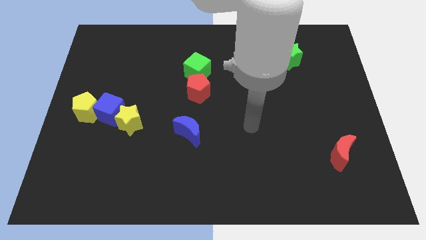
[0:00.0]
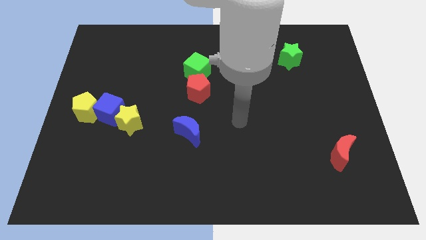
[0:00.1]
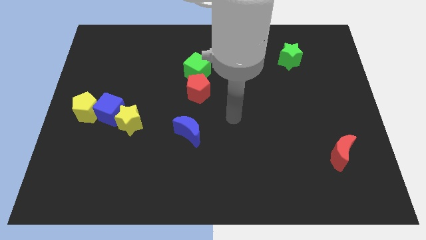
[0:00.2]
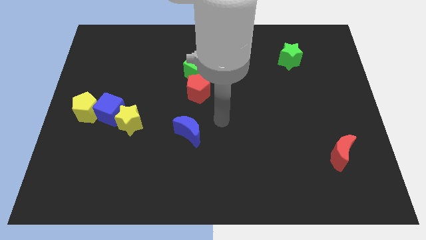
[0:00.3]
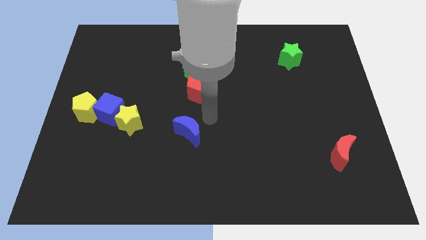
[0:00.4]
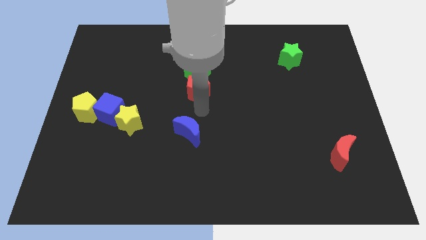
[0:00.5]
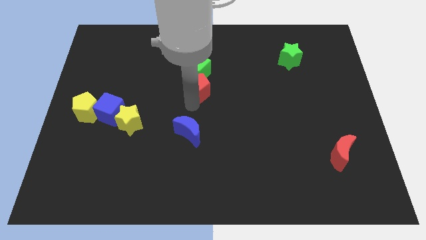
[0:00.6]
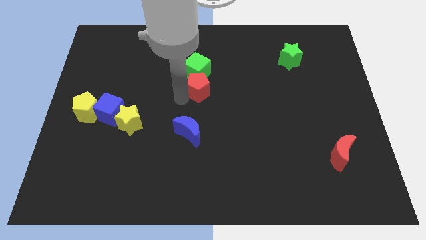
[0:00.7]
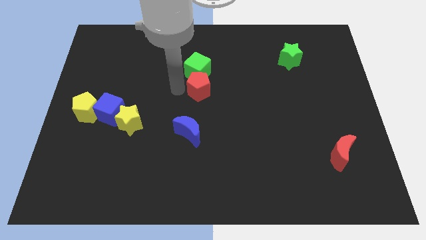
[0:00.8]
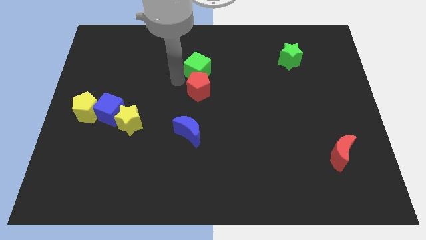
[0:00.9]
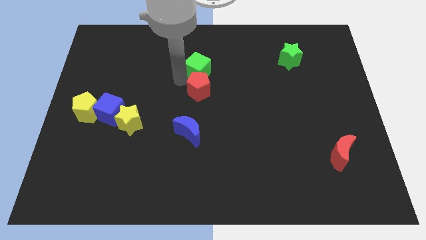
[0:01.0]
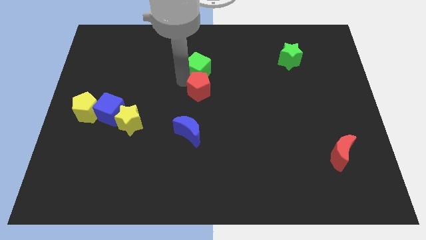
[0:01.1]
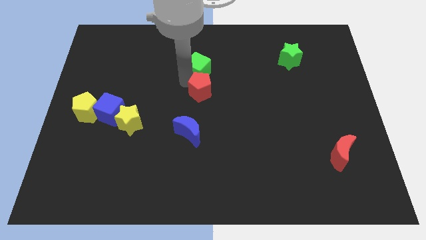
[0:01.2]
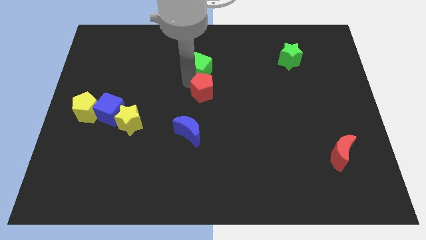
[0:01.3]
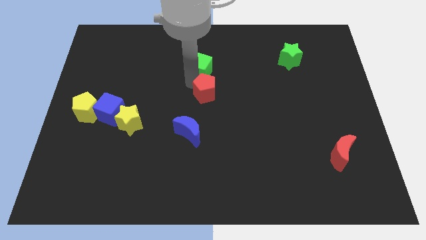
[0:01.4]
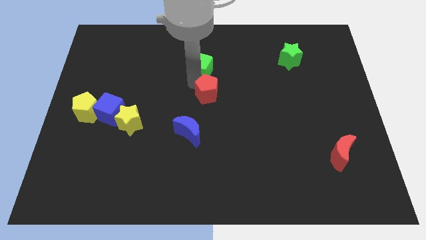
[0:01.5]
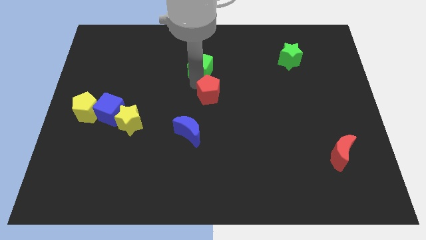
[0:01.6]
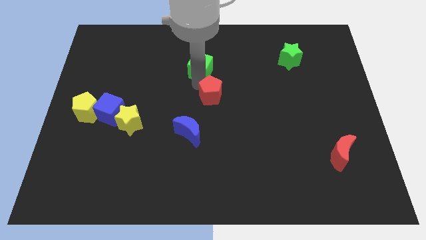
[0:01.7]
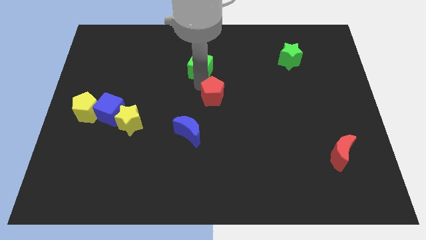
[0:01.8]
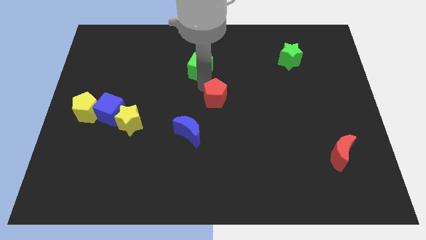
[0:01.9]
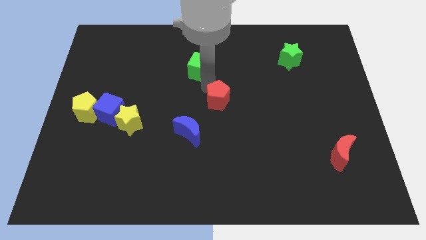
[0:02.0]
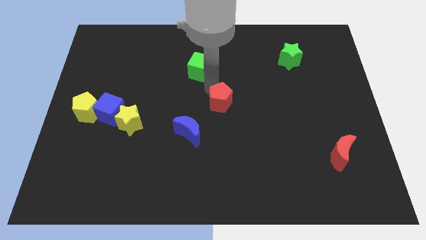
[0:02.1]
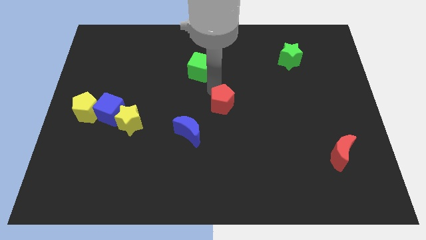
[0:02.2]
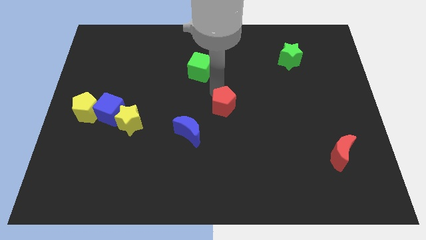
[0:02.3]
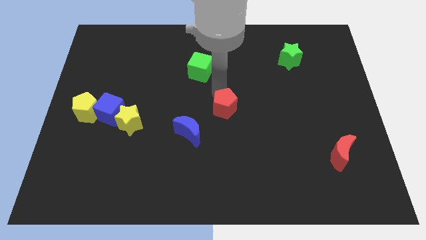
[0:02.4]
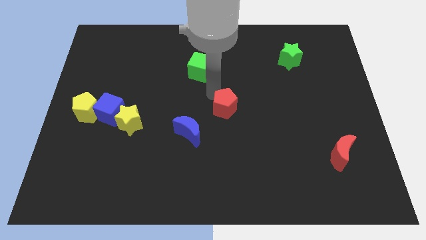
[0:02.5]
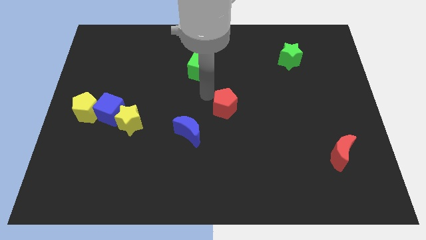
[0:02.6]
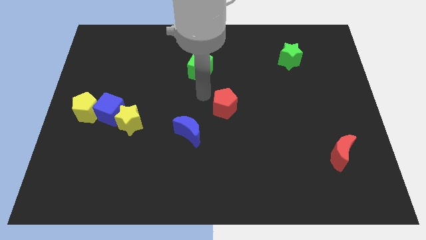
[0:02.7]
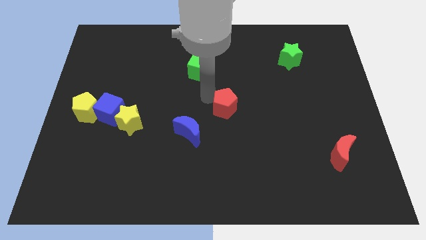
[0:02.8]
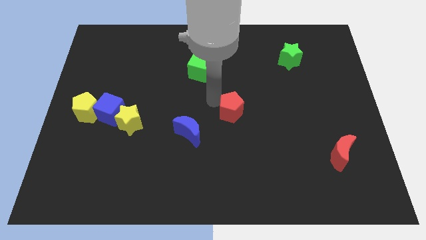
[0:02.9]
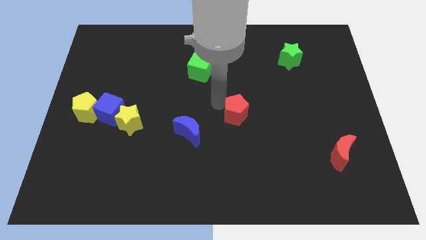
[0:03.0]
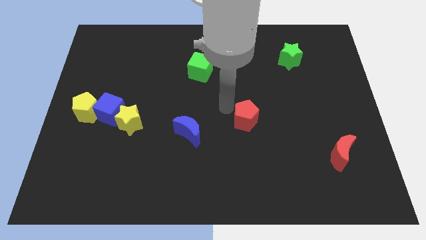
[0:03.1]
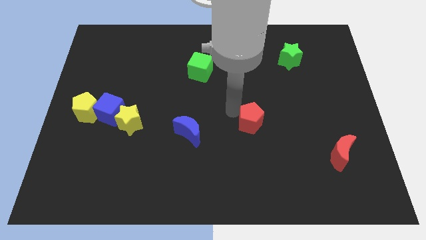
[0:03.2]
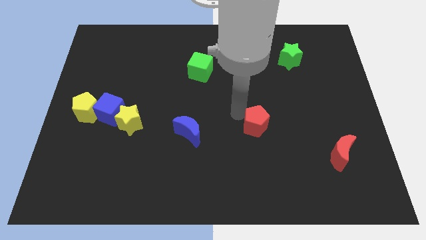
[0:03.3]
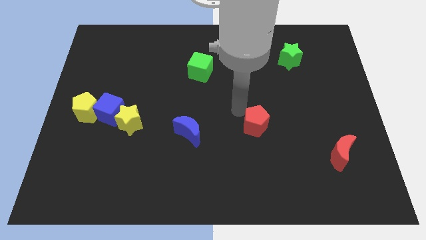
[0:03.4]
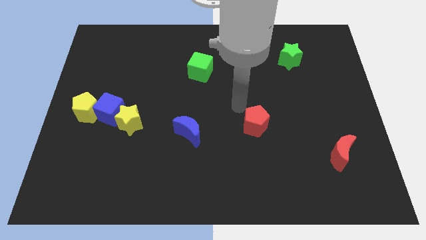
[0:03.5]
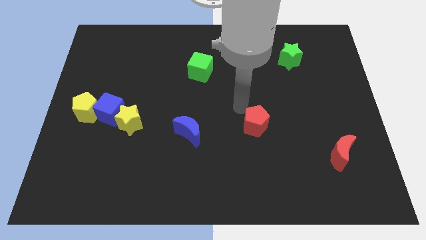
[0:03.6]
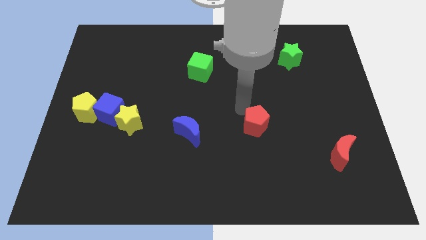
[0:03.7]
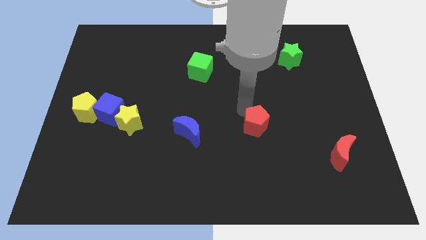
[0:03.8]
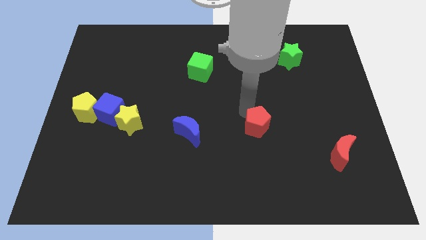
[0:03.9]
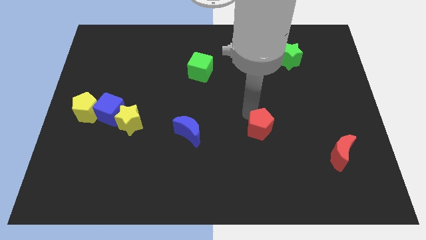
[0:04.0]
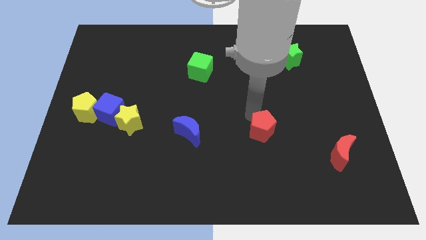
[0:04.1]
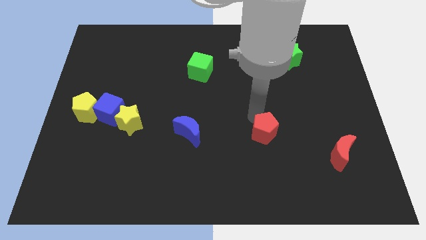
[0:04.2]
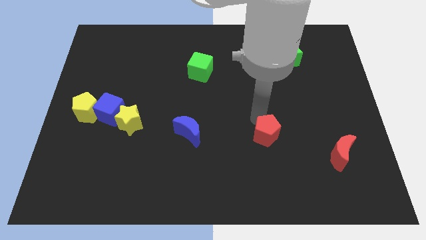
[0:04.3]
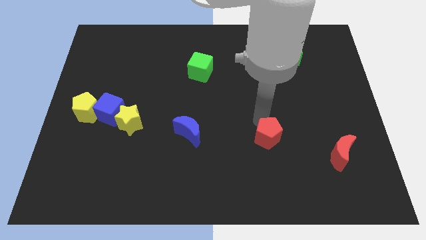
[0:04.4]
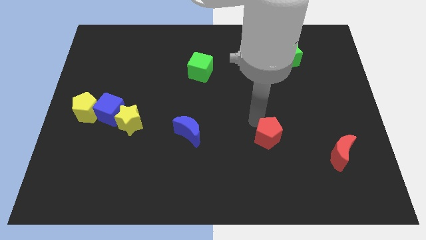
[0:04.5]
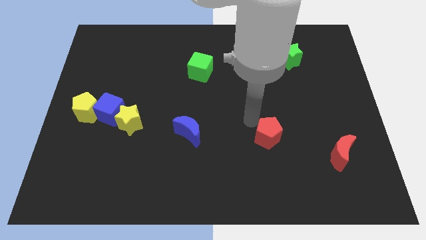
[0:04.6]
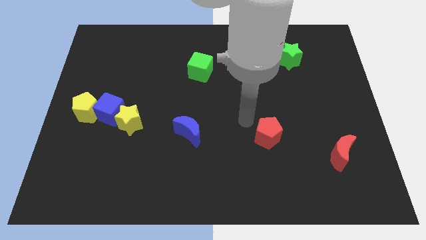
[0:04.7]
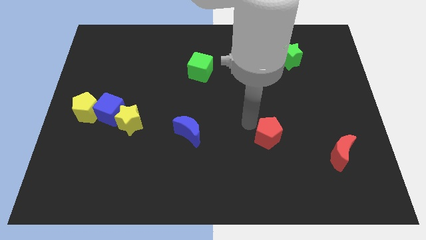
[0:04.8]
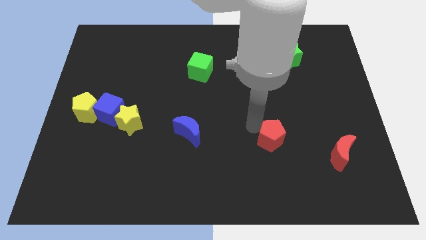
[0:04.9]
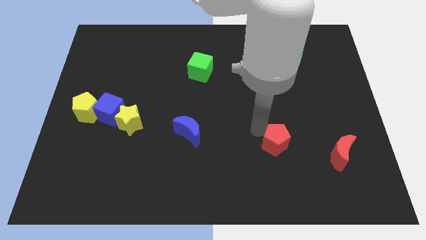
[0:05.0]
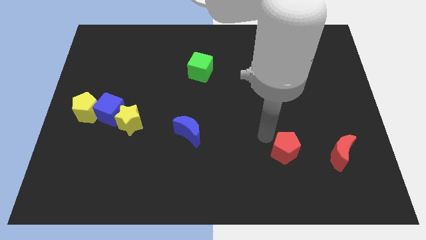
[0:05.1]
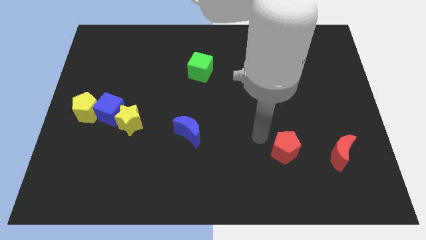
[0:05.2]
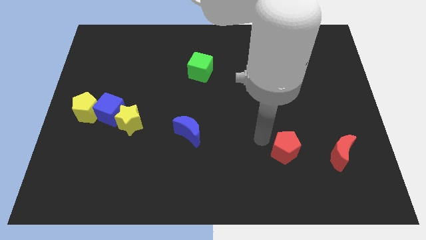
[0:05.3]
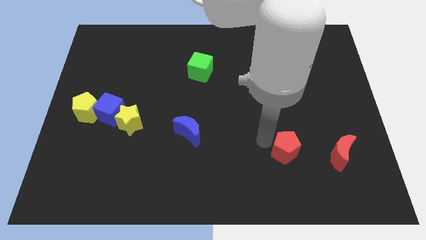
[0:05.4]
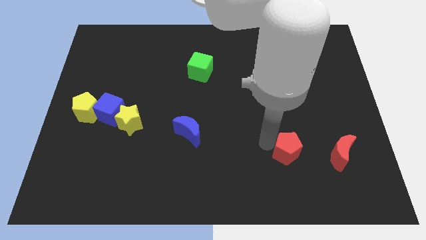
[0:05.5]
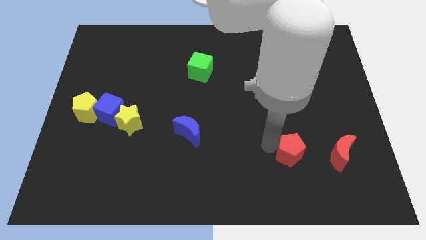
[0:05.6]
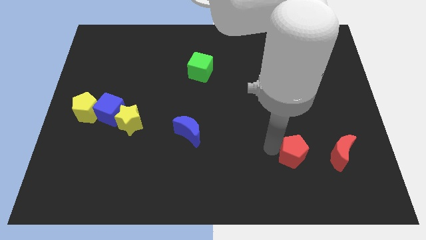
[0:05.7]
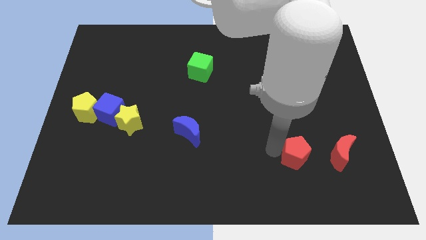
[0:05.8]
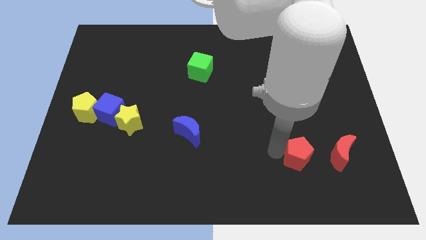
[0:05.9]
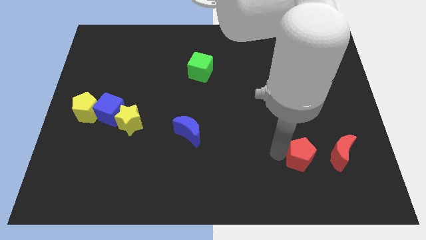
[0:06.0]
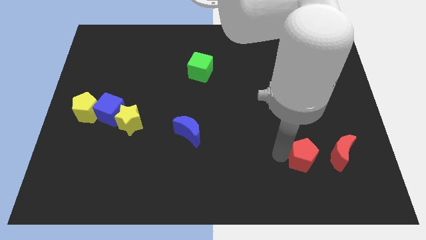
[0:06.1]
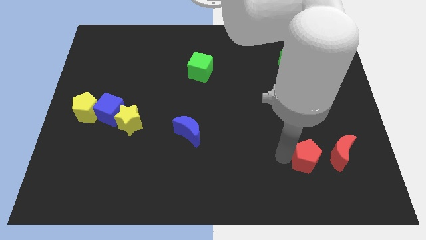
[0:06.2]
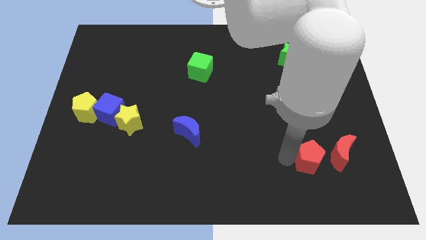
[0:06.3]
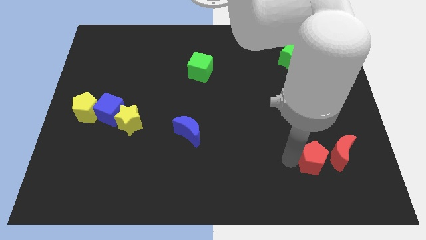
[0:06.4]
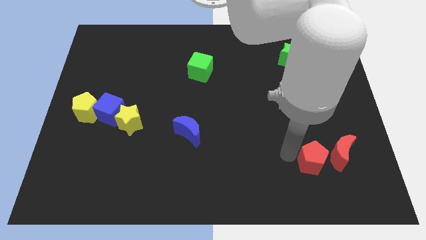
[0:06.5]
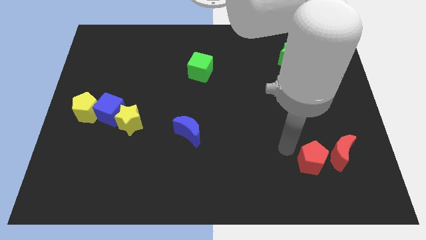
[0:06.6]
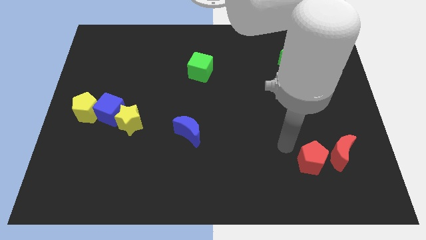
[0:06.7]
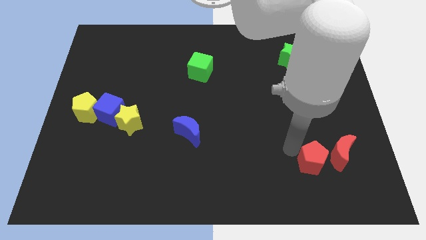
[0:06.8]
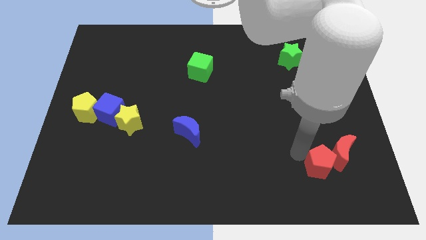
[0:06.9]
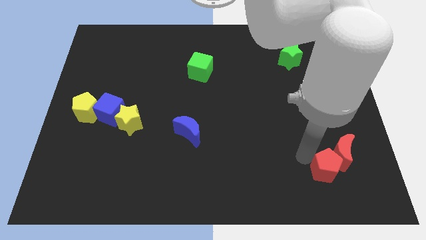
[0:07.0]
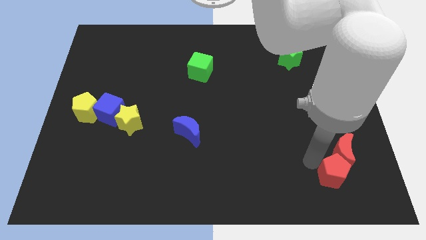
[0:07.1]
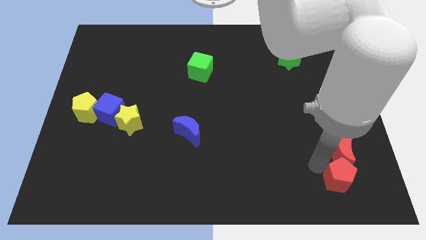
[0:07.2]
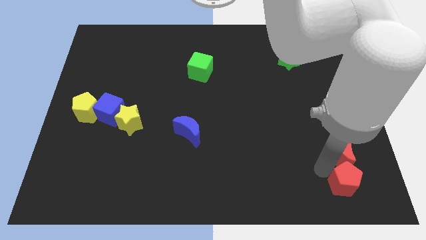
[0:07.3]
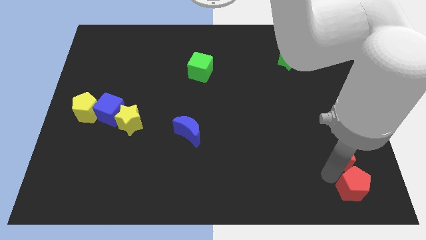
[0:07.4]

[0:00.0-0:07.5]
slide the red pentagon to the bottom right corner
